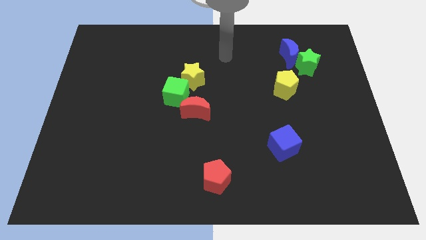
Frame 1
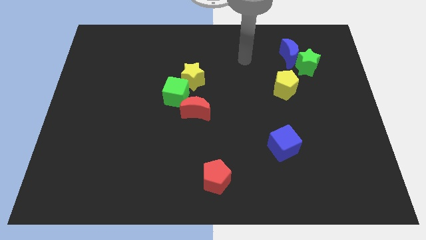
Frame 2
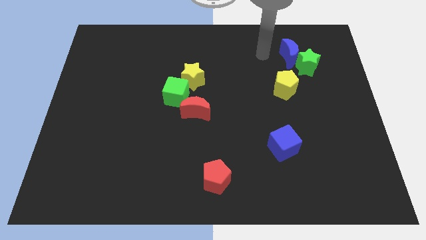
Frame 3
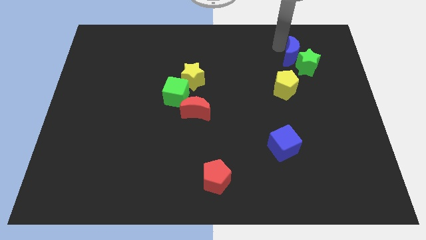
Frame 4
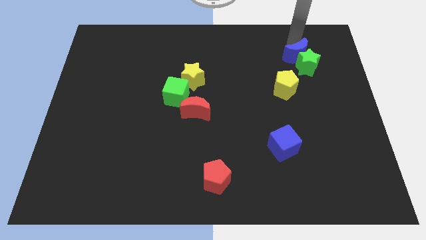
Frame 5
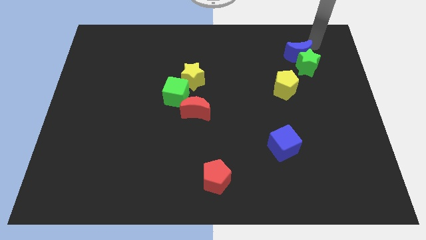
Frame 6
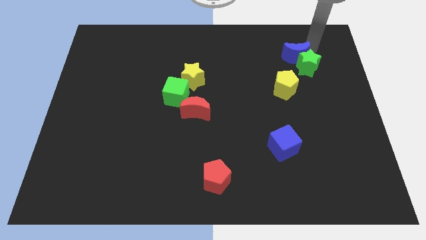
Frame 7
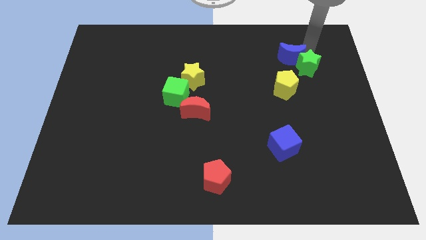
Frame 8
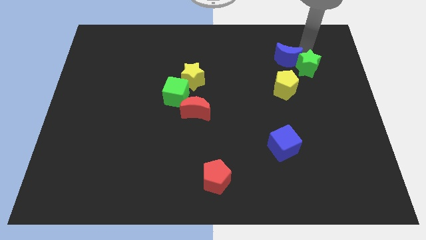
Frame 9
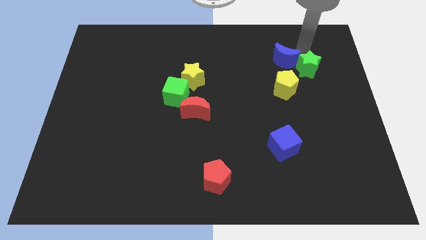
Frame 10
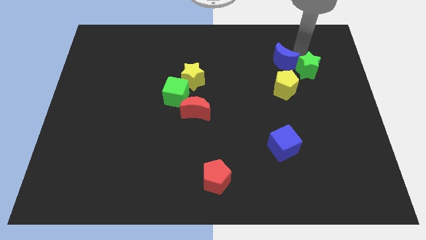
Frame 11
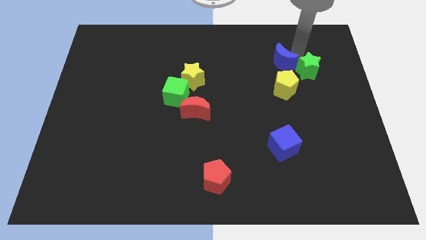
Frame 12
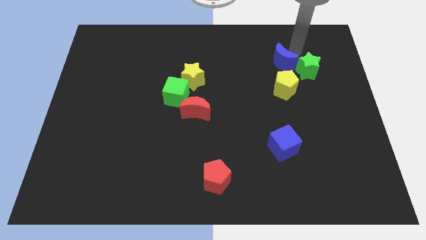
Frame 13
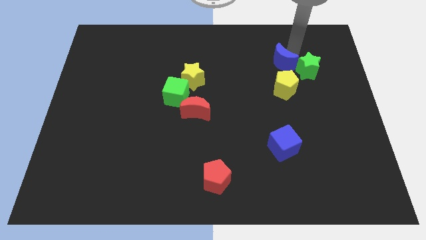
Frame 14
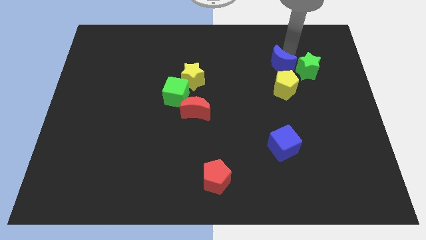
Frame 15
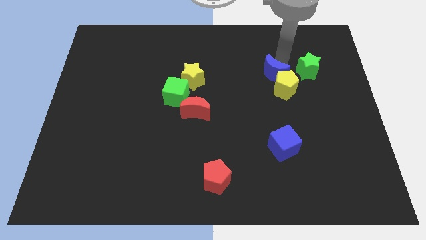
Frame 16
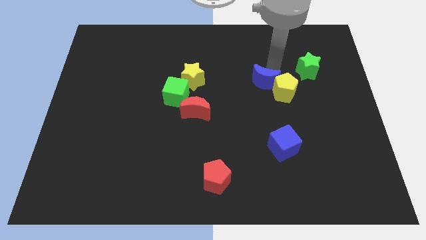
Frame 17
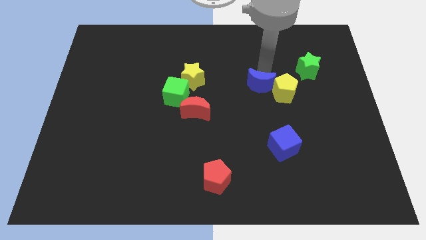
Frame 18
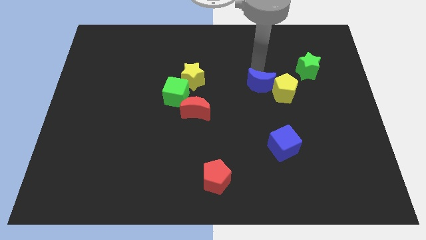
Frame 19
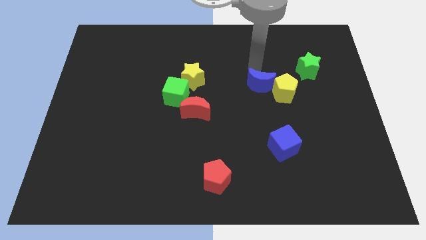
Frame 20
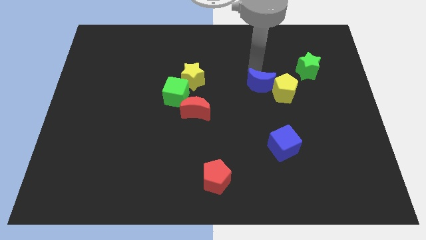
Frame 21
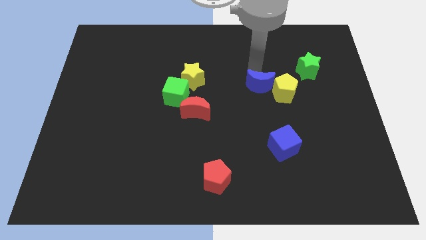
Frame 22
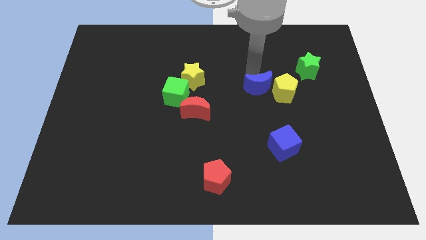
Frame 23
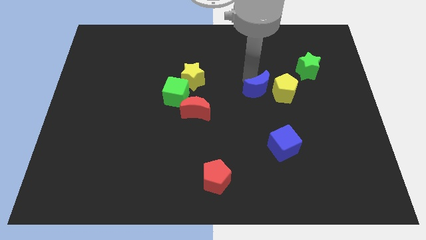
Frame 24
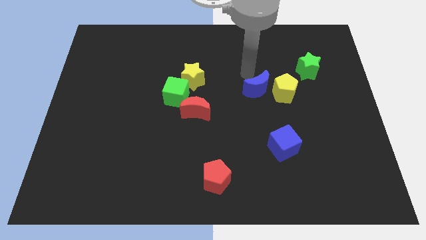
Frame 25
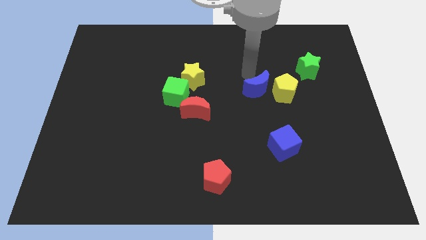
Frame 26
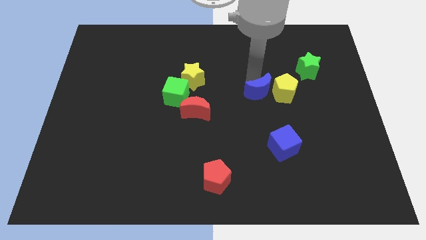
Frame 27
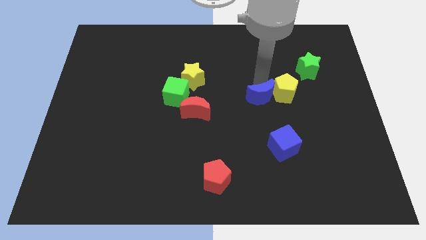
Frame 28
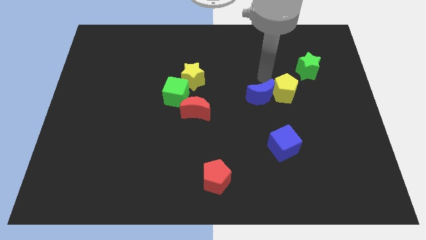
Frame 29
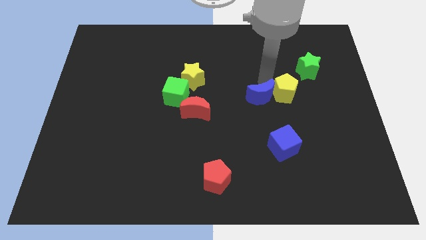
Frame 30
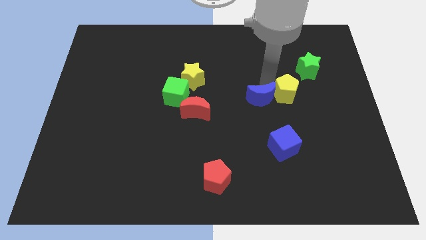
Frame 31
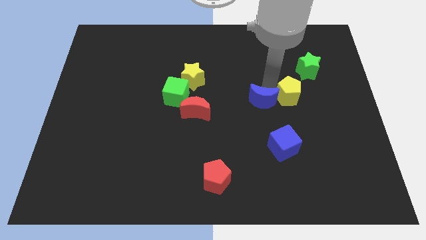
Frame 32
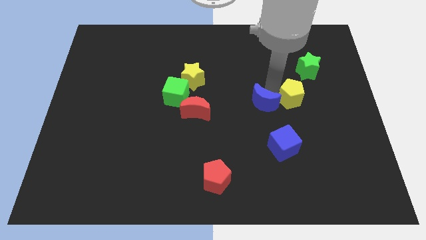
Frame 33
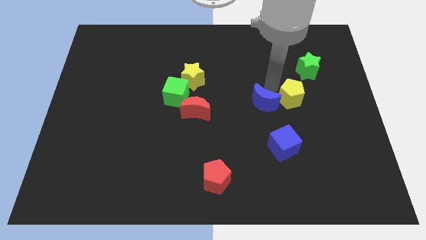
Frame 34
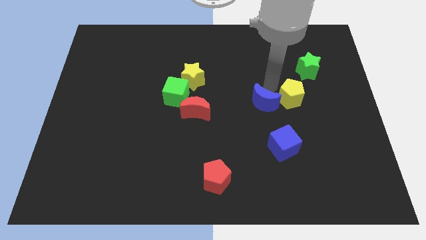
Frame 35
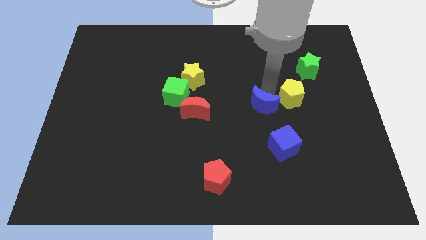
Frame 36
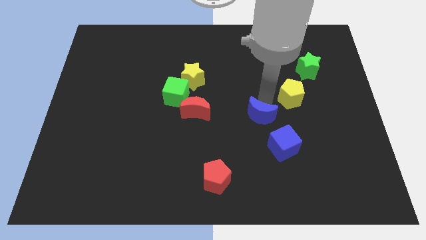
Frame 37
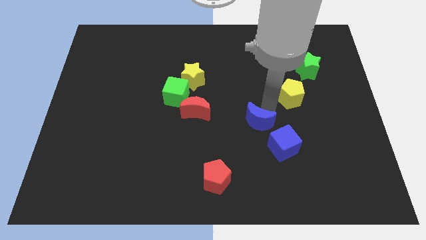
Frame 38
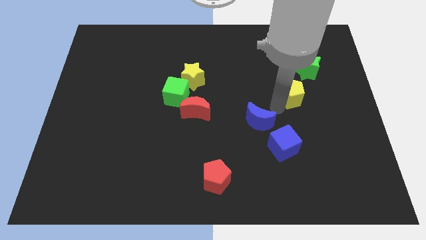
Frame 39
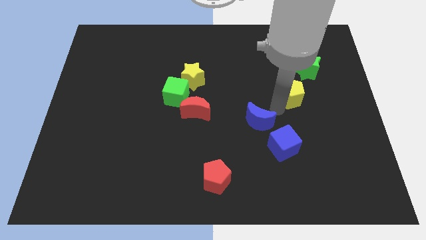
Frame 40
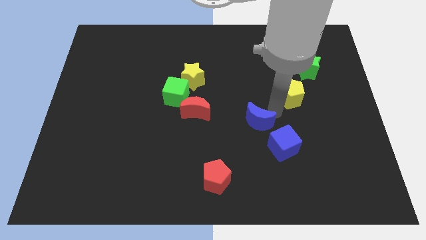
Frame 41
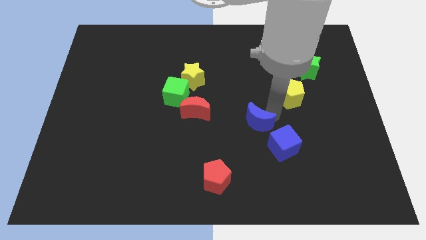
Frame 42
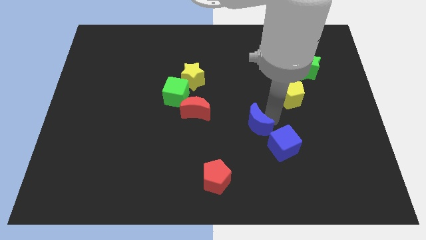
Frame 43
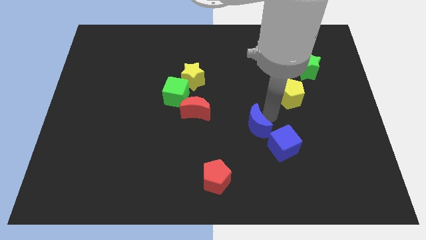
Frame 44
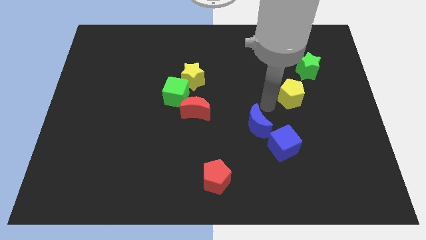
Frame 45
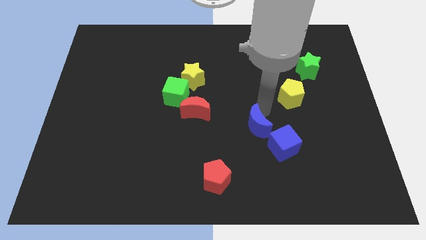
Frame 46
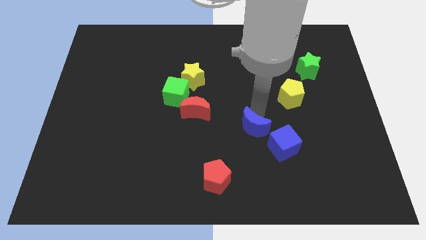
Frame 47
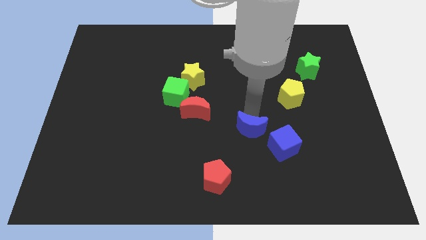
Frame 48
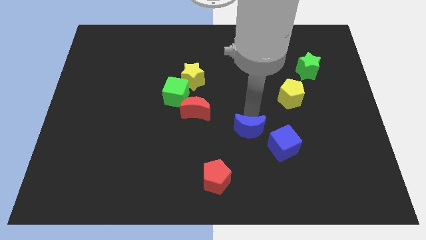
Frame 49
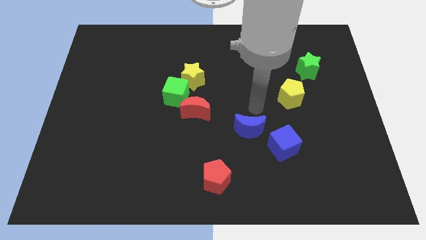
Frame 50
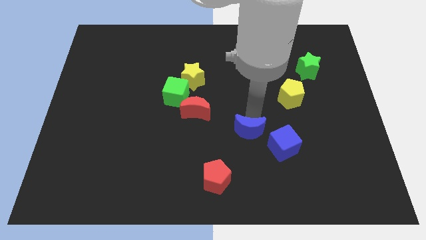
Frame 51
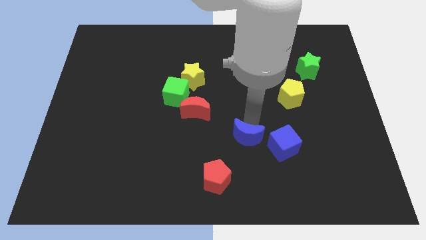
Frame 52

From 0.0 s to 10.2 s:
push the blue moon to the top right of the red pentagon

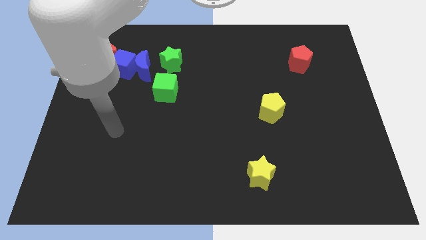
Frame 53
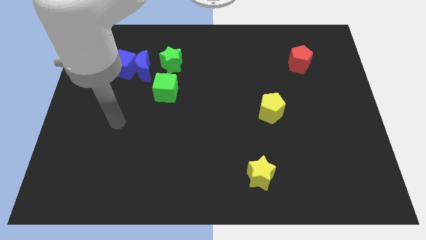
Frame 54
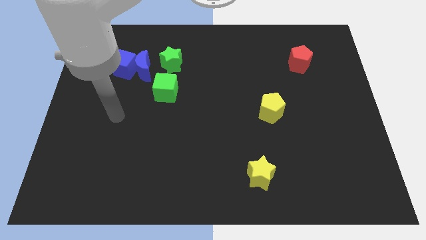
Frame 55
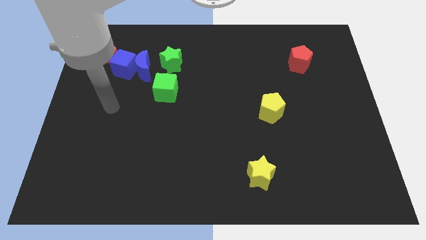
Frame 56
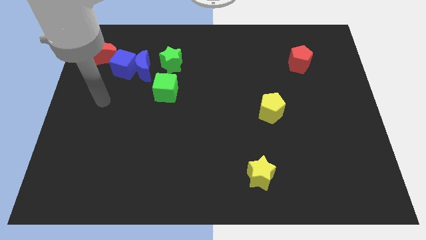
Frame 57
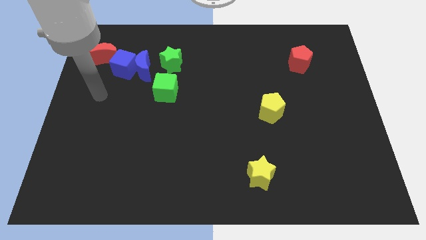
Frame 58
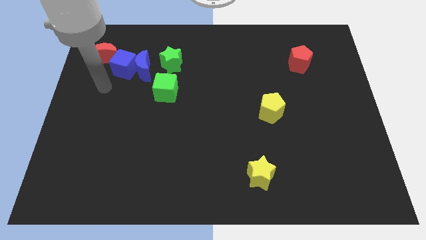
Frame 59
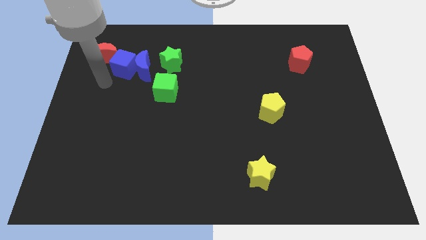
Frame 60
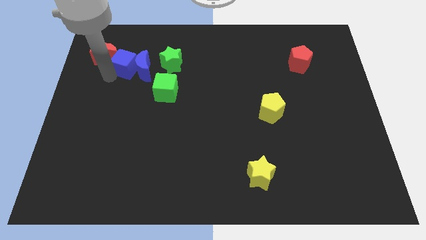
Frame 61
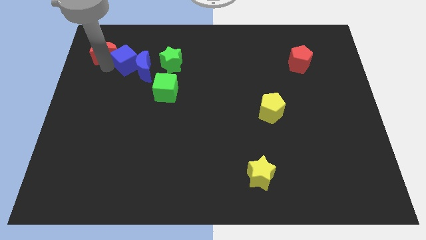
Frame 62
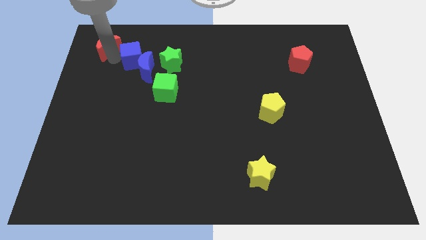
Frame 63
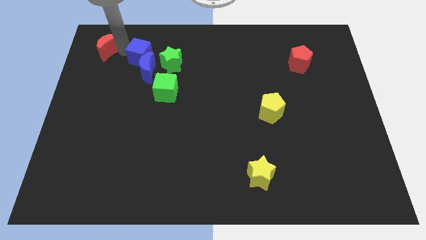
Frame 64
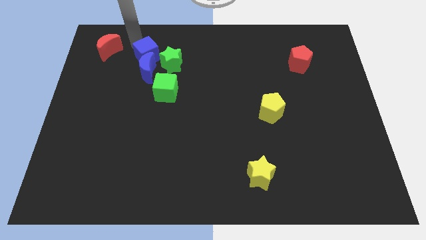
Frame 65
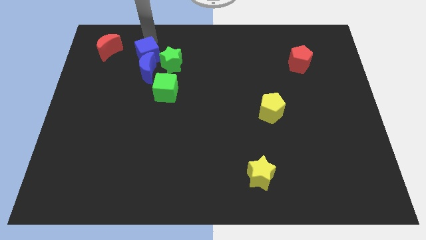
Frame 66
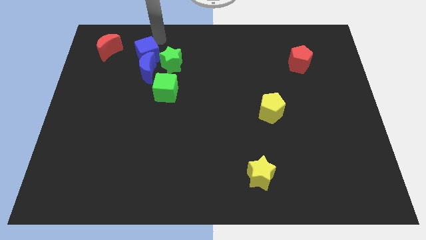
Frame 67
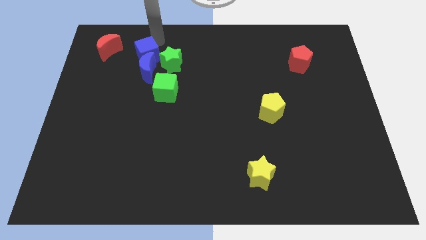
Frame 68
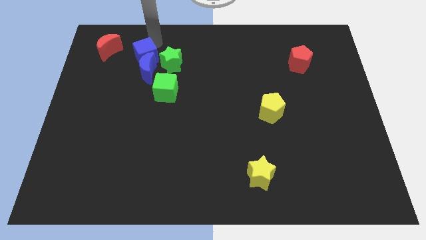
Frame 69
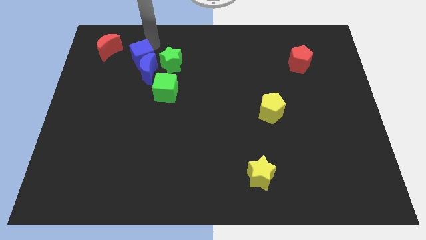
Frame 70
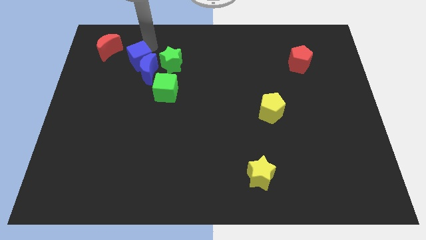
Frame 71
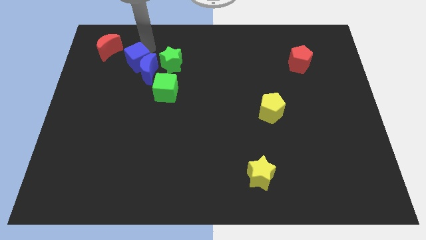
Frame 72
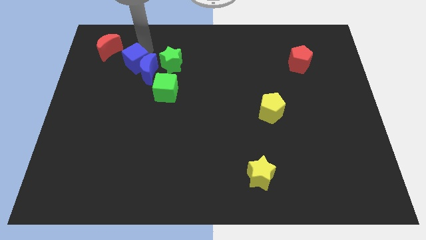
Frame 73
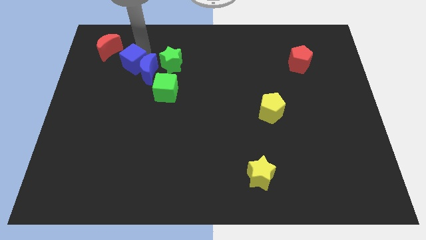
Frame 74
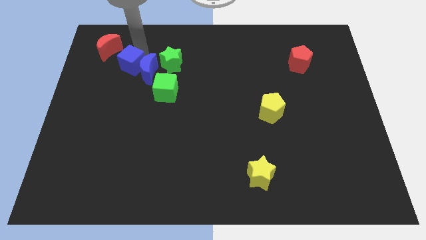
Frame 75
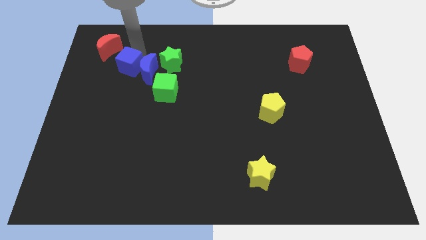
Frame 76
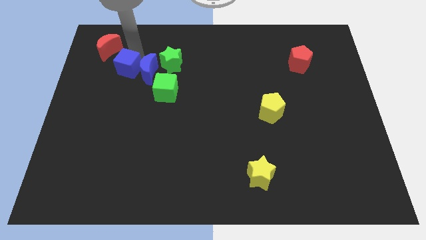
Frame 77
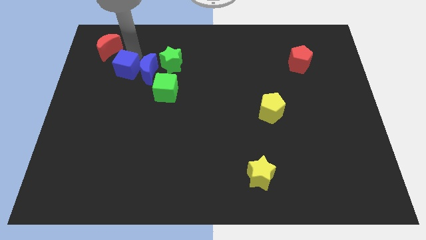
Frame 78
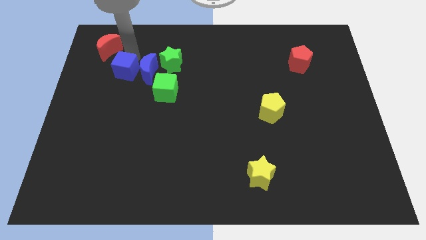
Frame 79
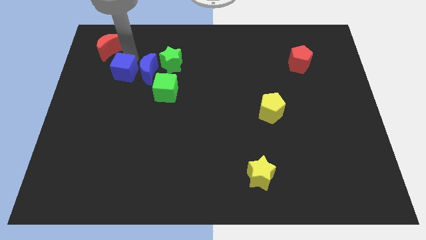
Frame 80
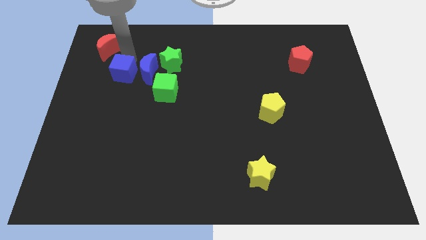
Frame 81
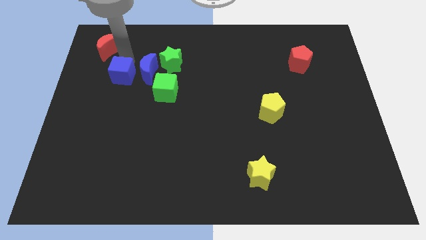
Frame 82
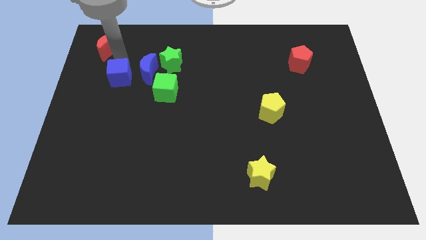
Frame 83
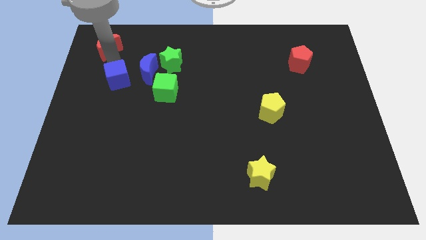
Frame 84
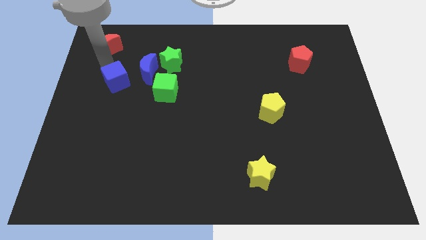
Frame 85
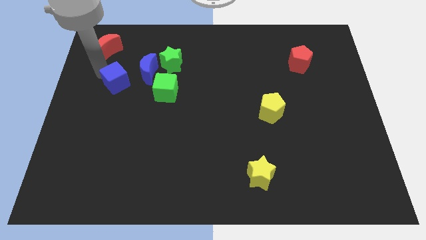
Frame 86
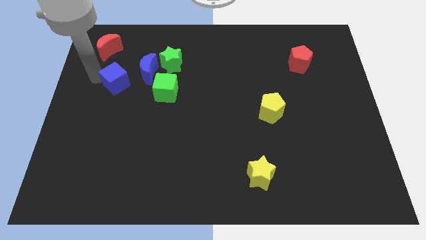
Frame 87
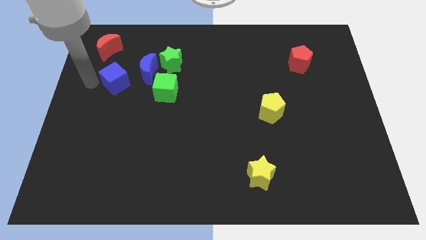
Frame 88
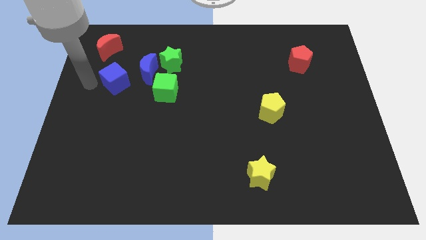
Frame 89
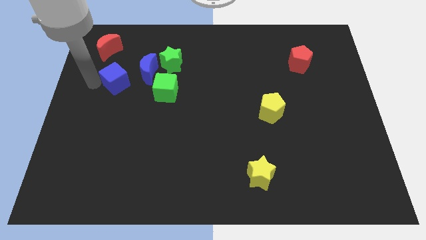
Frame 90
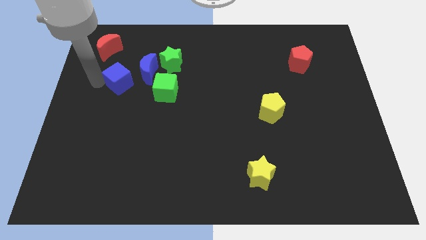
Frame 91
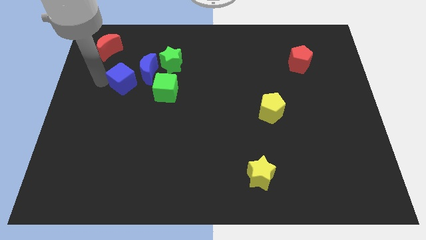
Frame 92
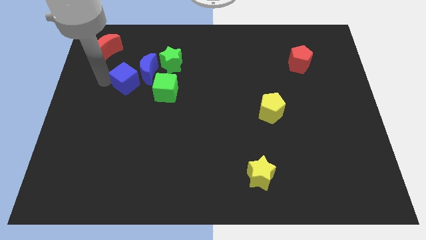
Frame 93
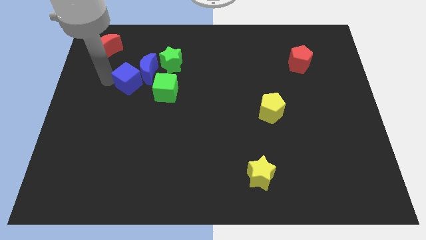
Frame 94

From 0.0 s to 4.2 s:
slide the blue cube to the bottom left of the green star
